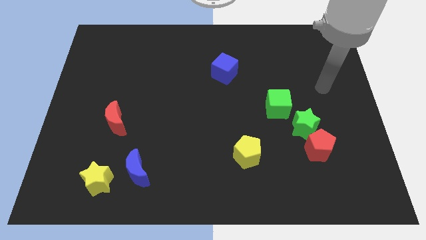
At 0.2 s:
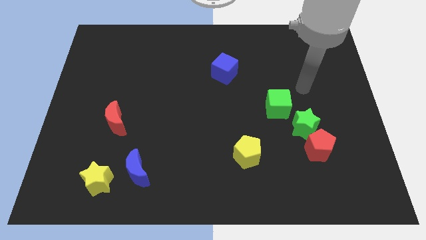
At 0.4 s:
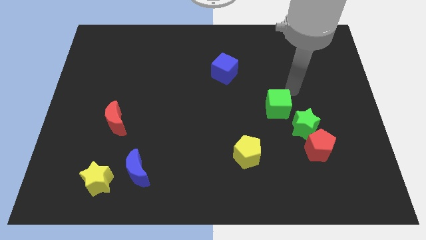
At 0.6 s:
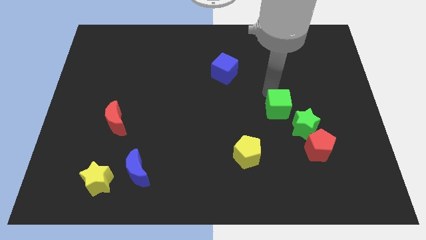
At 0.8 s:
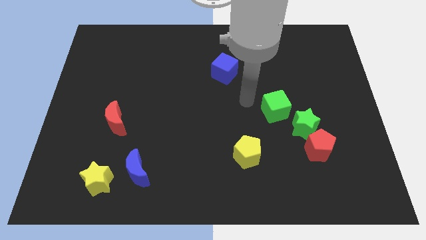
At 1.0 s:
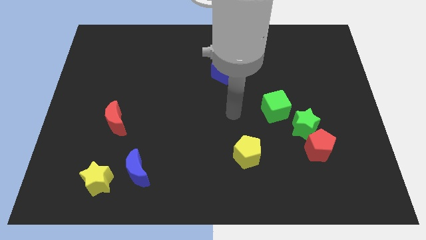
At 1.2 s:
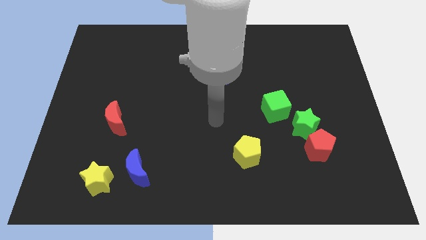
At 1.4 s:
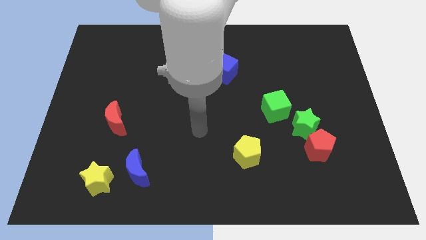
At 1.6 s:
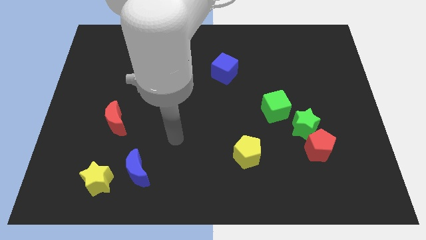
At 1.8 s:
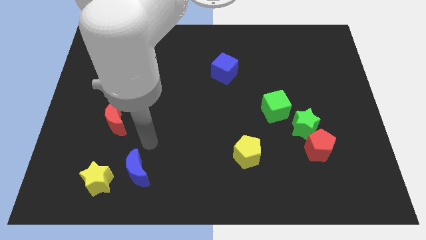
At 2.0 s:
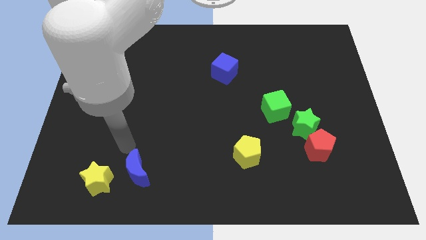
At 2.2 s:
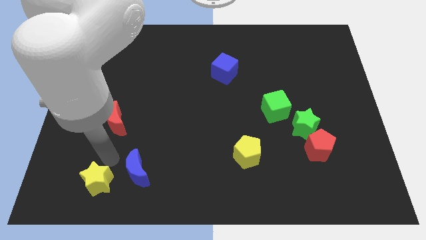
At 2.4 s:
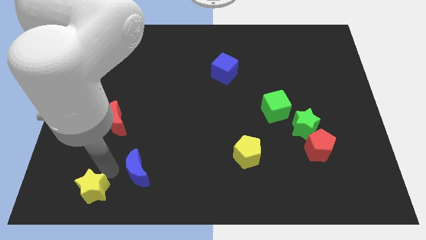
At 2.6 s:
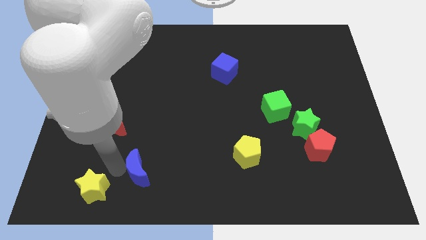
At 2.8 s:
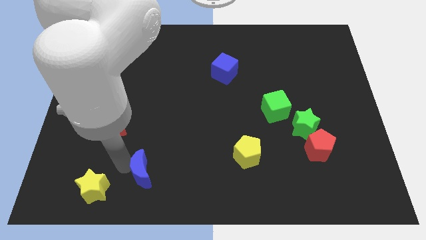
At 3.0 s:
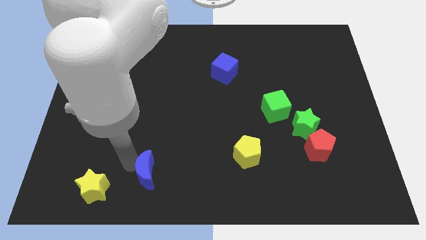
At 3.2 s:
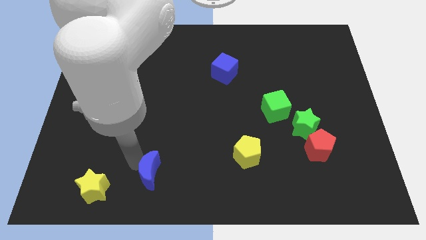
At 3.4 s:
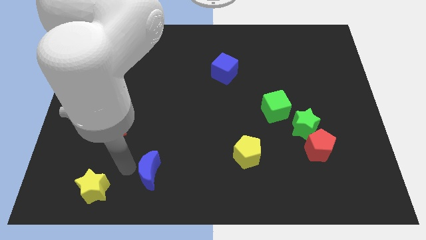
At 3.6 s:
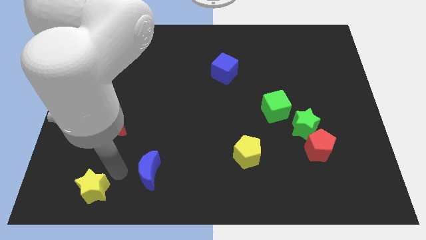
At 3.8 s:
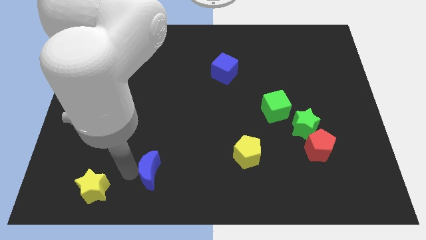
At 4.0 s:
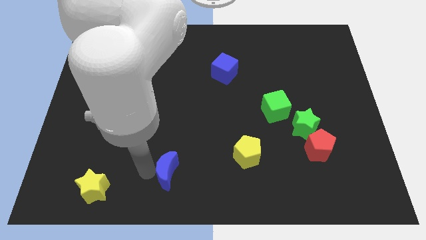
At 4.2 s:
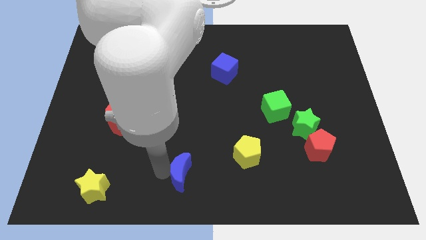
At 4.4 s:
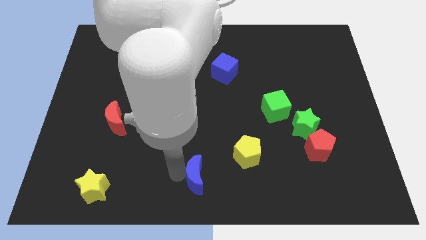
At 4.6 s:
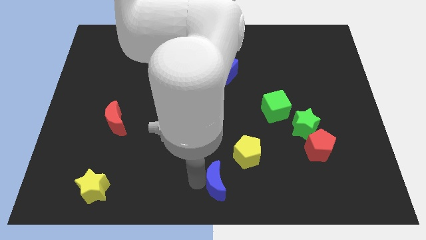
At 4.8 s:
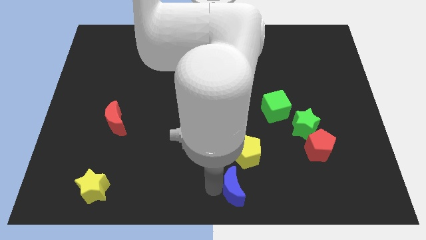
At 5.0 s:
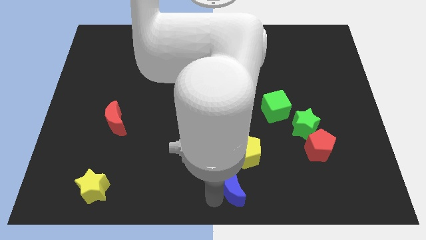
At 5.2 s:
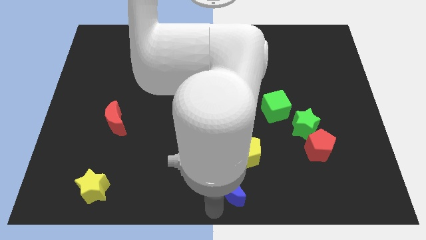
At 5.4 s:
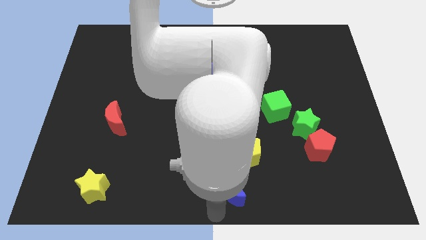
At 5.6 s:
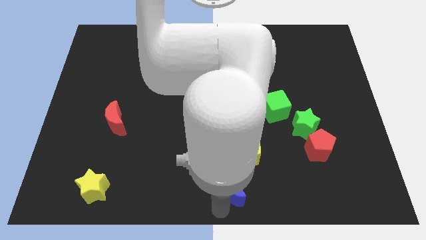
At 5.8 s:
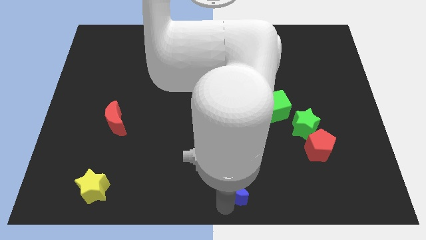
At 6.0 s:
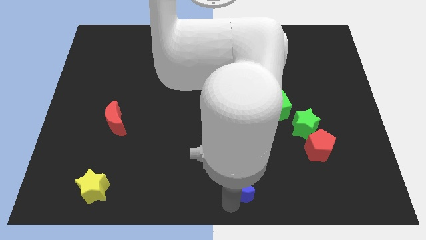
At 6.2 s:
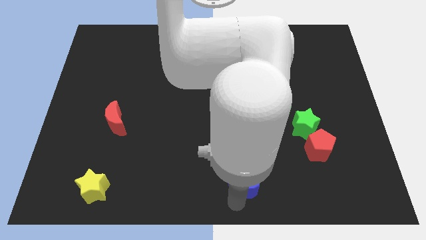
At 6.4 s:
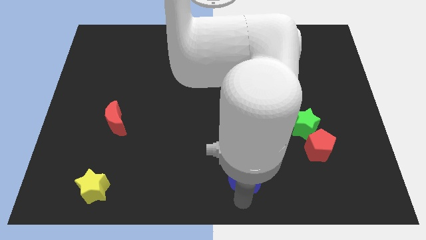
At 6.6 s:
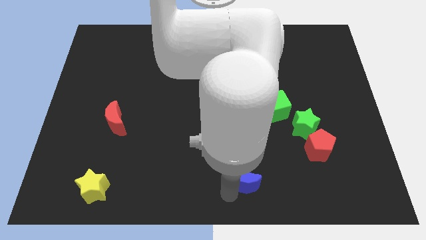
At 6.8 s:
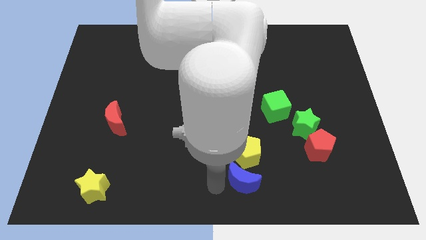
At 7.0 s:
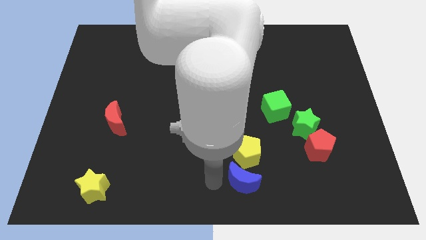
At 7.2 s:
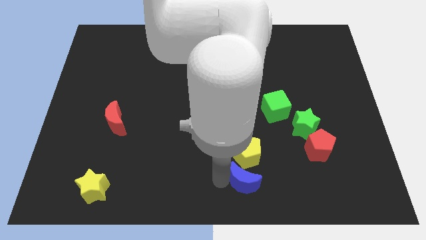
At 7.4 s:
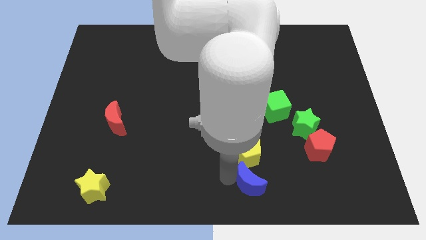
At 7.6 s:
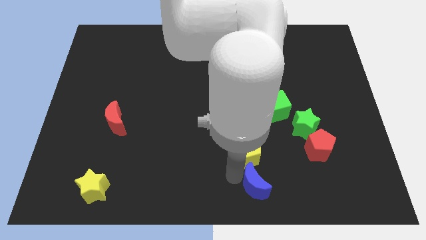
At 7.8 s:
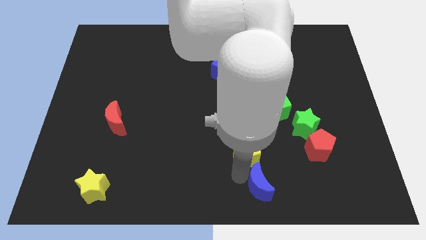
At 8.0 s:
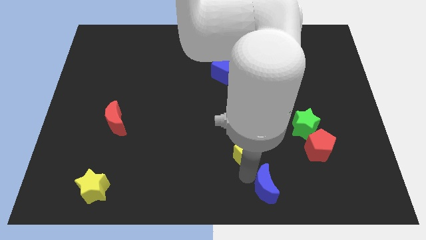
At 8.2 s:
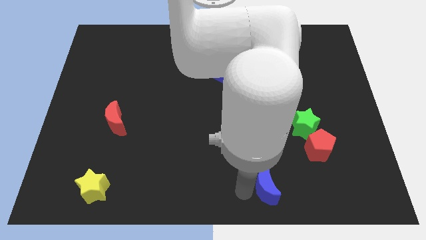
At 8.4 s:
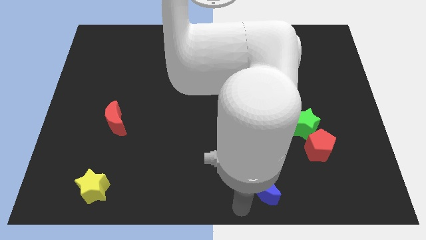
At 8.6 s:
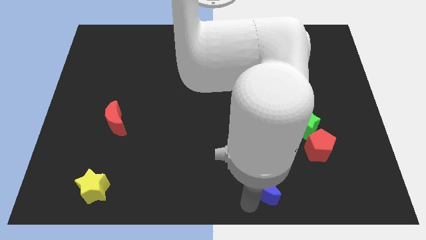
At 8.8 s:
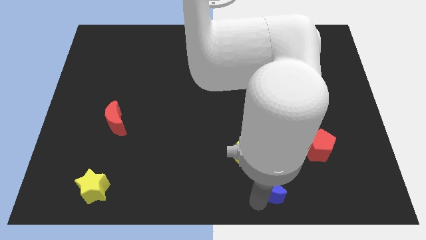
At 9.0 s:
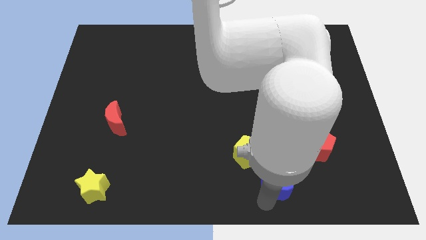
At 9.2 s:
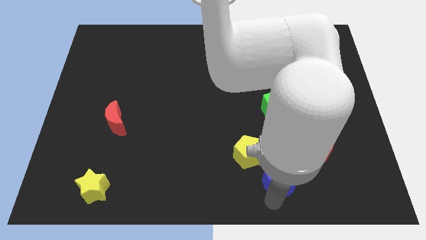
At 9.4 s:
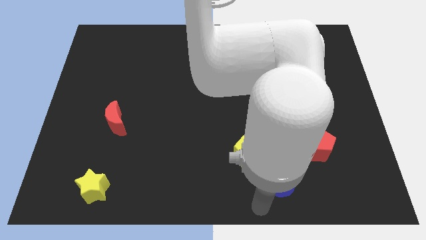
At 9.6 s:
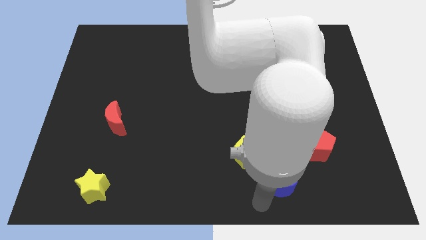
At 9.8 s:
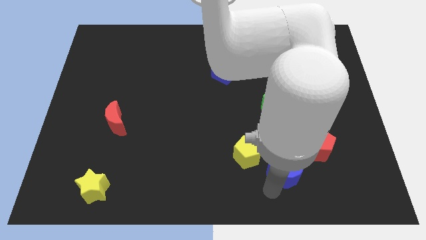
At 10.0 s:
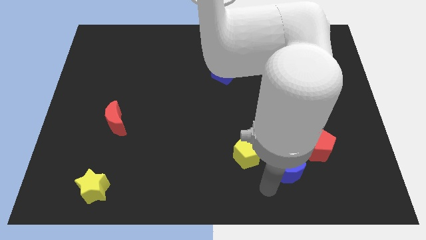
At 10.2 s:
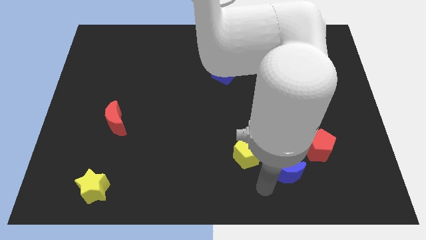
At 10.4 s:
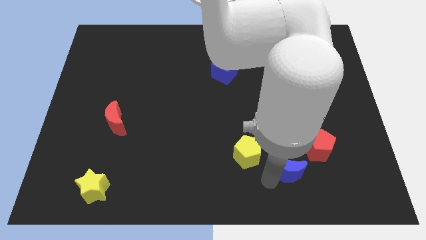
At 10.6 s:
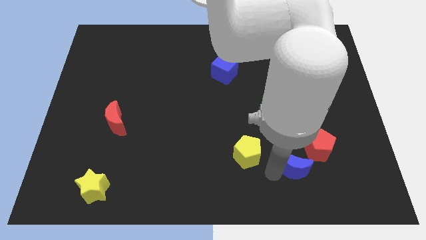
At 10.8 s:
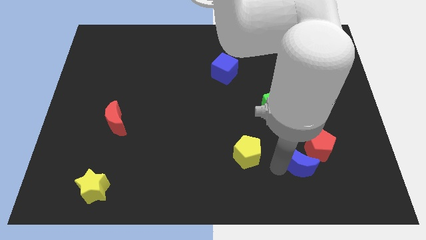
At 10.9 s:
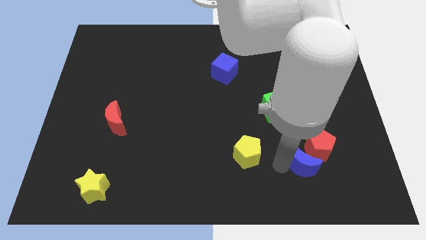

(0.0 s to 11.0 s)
slide the blue moon close to the red pentagon

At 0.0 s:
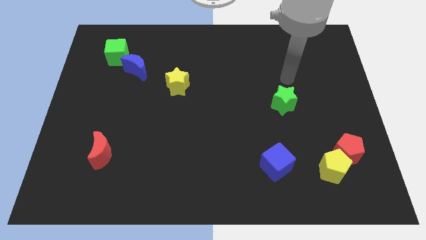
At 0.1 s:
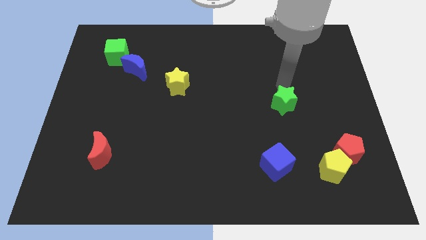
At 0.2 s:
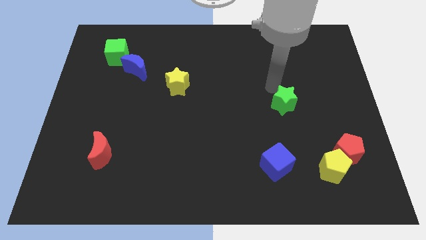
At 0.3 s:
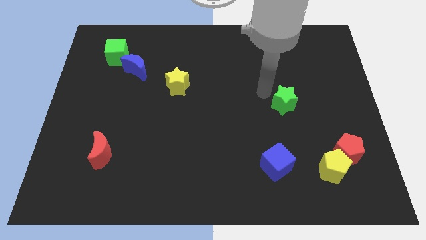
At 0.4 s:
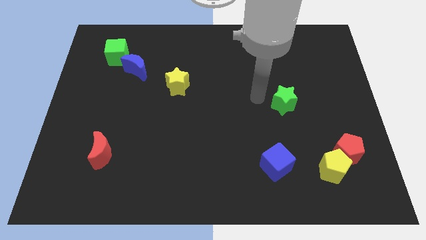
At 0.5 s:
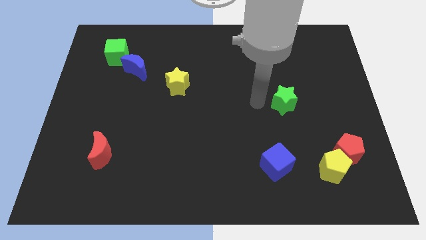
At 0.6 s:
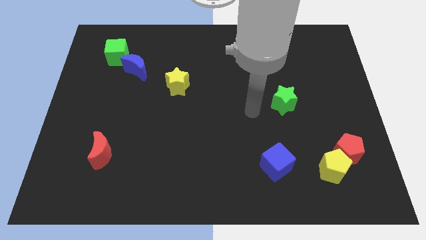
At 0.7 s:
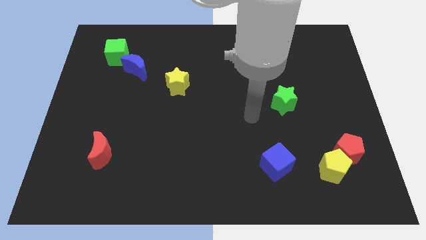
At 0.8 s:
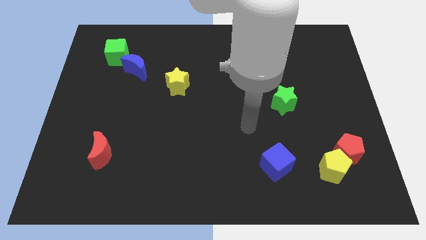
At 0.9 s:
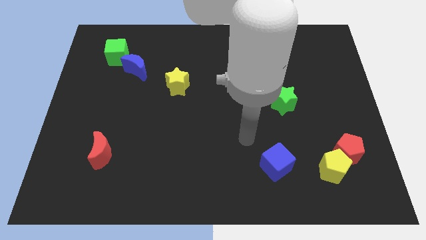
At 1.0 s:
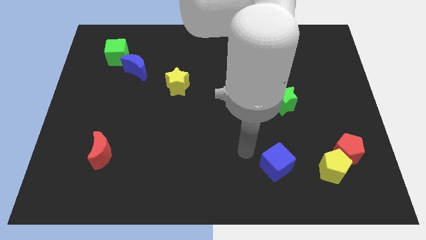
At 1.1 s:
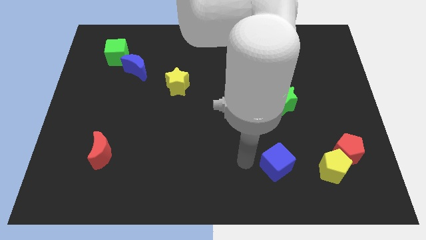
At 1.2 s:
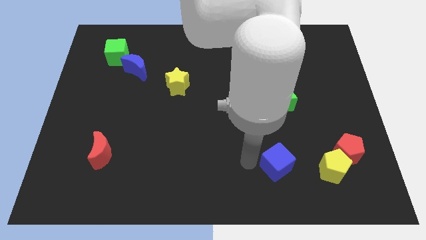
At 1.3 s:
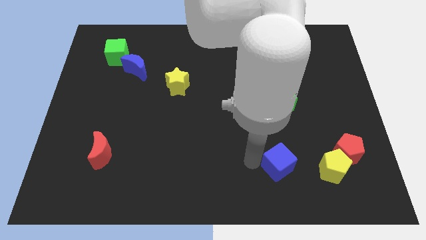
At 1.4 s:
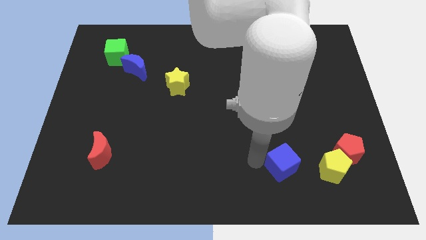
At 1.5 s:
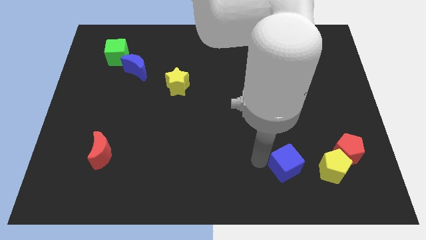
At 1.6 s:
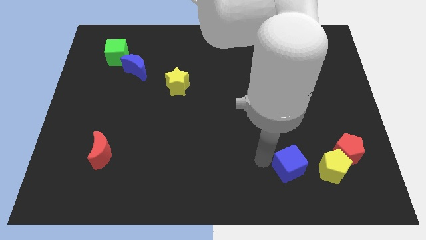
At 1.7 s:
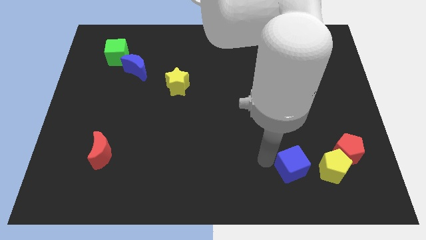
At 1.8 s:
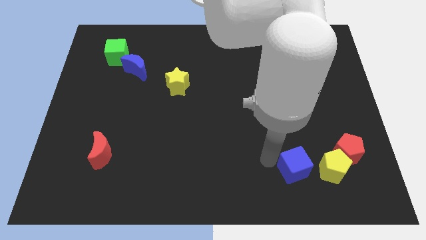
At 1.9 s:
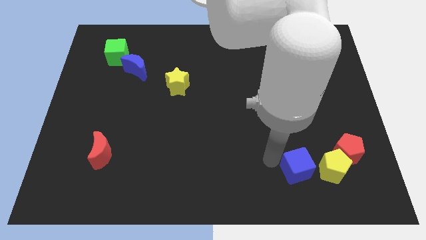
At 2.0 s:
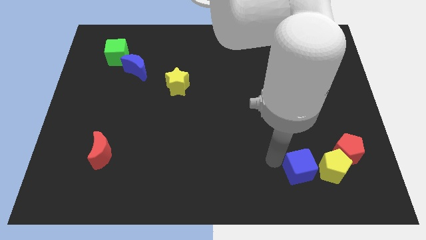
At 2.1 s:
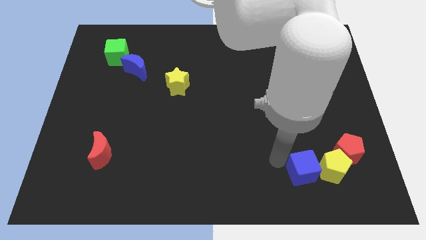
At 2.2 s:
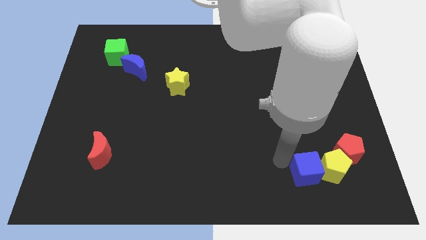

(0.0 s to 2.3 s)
slide the blue cube towards the yellow pentagon

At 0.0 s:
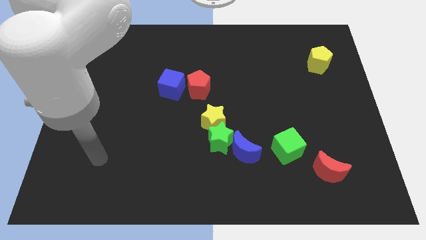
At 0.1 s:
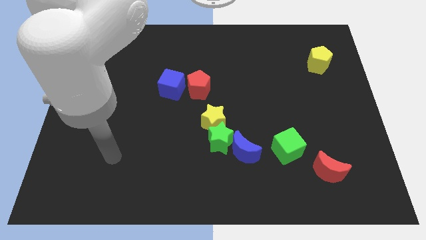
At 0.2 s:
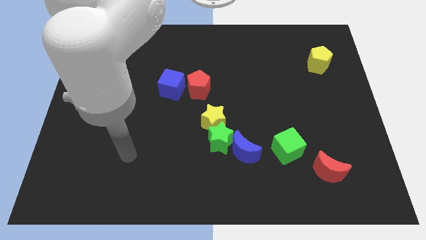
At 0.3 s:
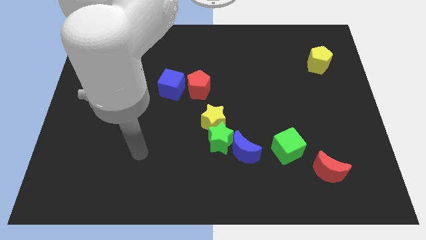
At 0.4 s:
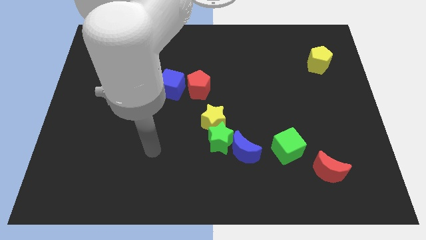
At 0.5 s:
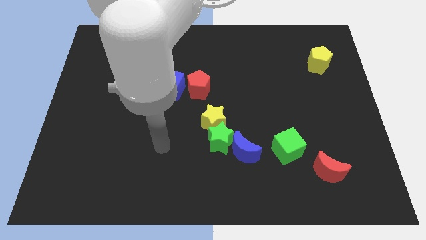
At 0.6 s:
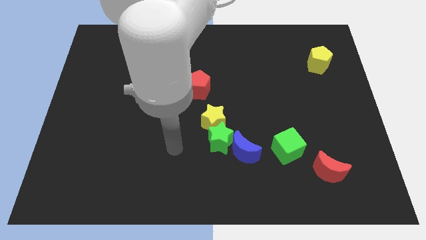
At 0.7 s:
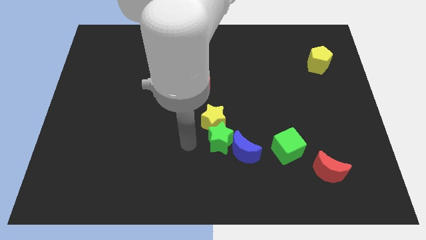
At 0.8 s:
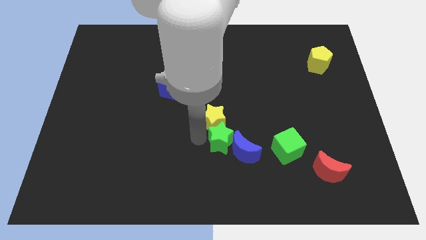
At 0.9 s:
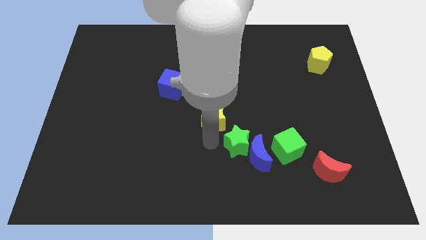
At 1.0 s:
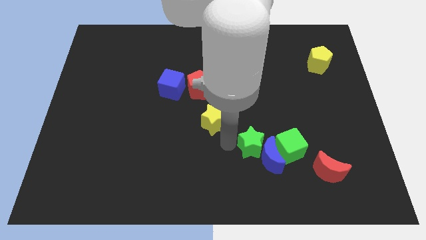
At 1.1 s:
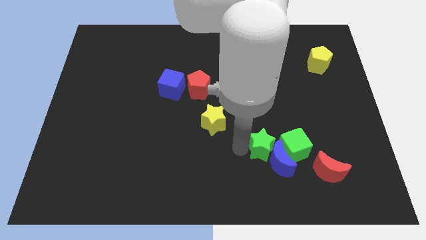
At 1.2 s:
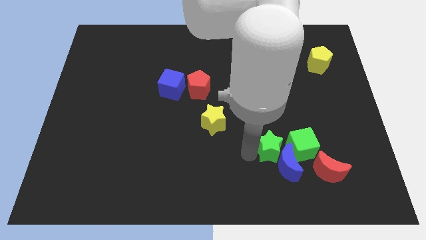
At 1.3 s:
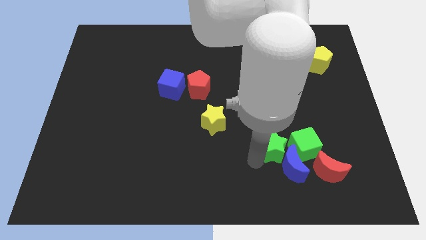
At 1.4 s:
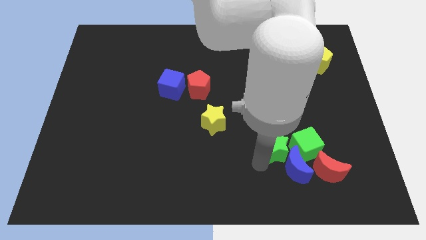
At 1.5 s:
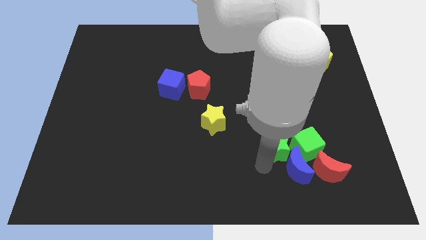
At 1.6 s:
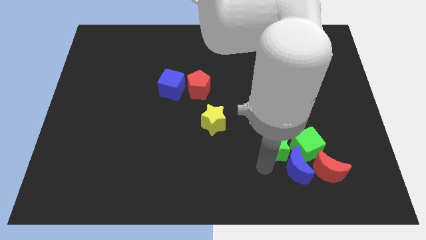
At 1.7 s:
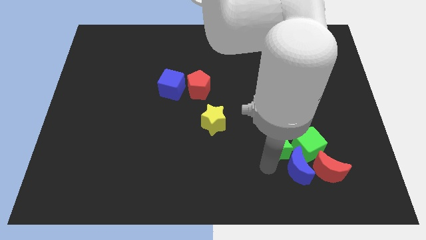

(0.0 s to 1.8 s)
slide the blue moon towards the red moon
